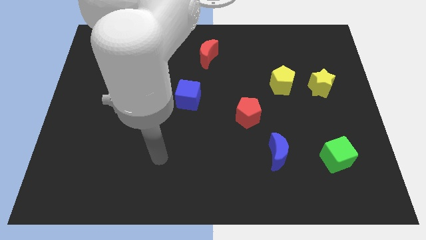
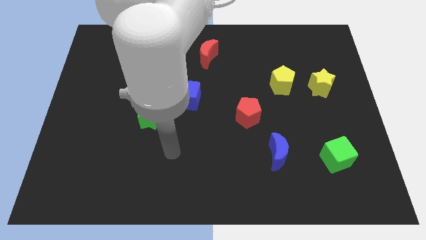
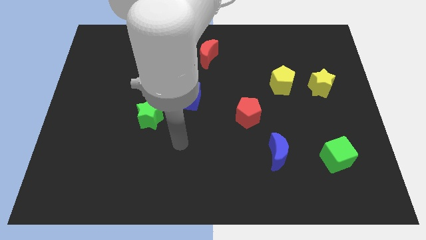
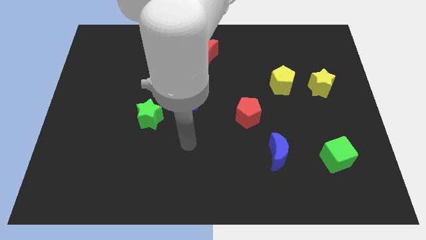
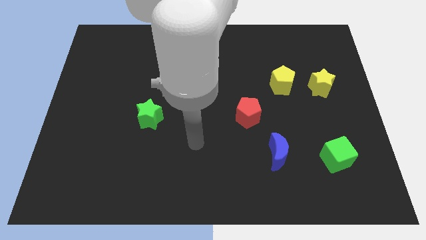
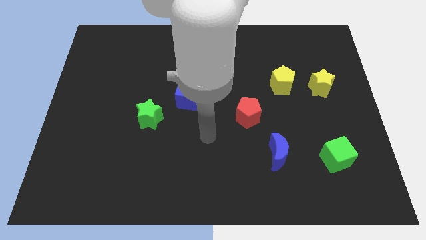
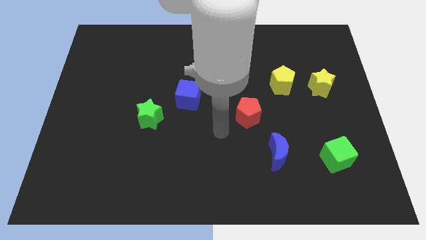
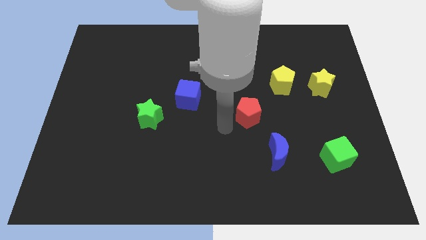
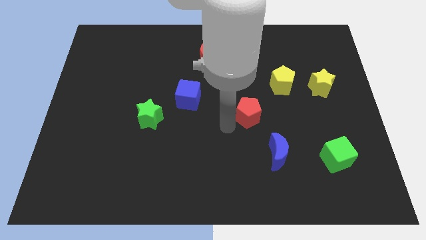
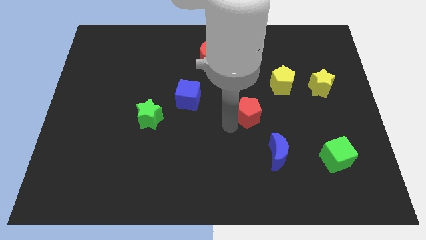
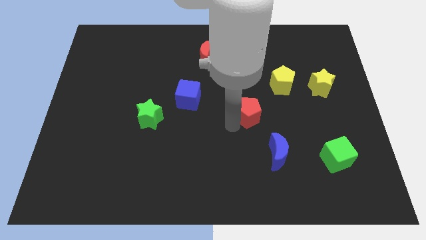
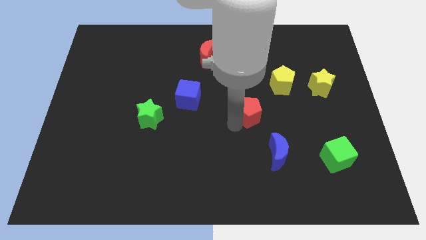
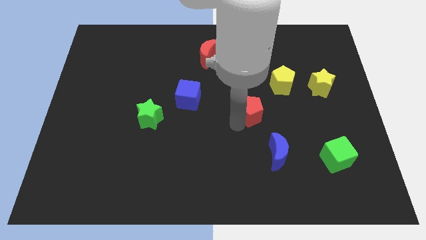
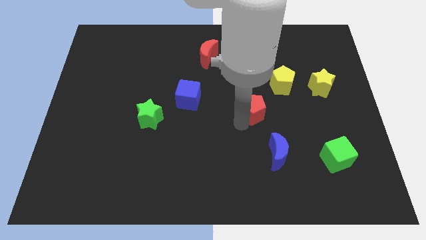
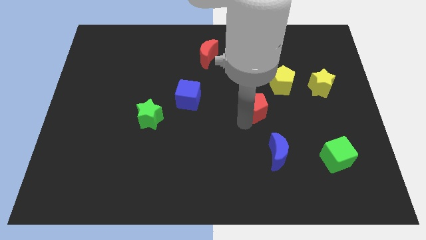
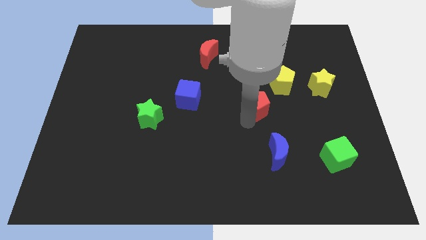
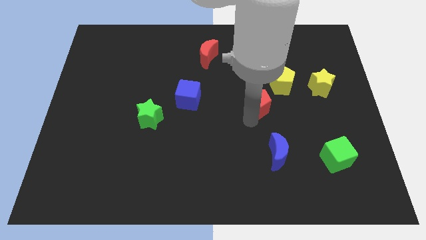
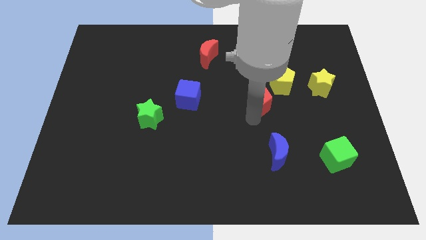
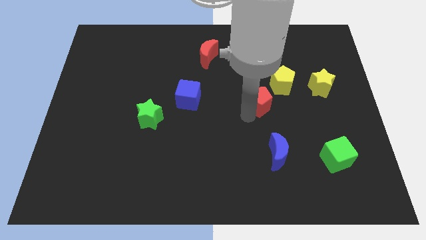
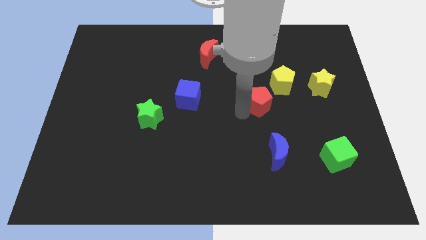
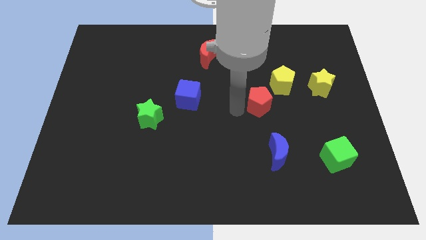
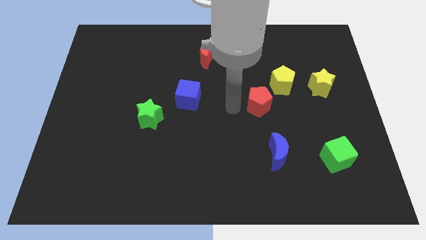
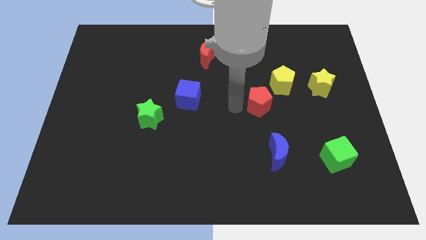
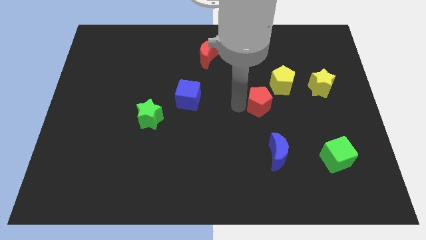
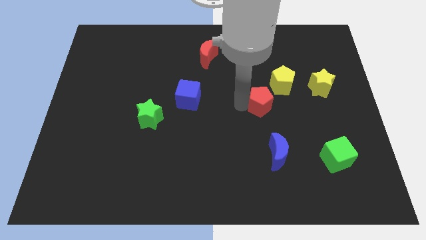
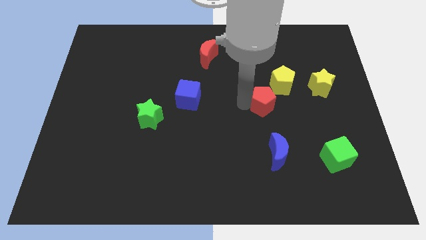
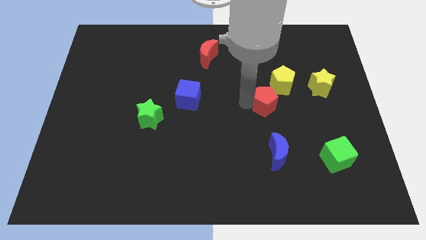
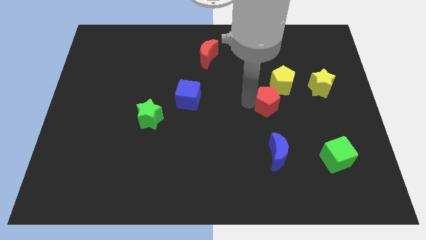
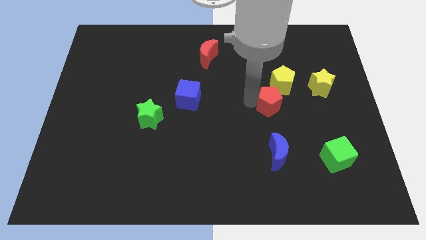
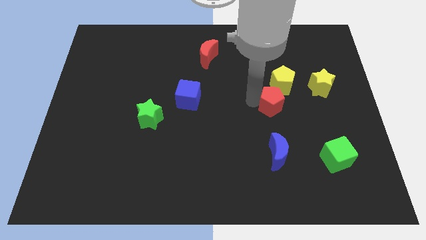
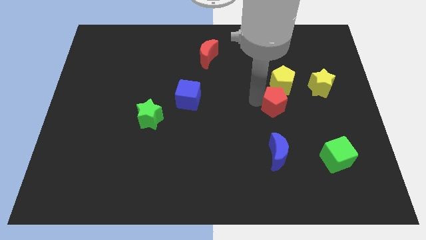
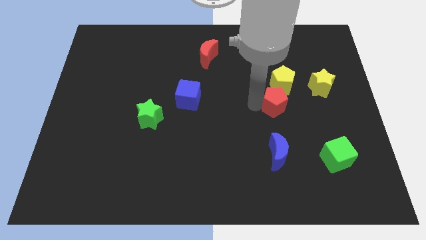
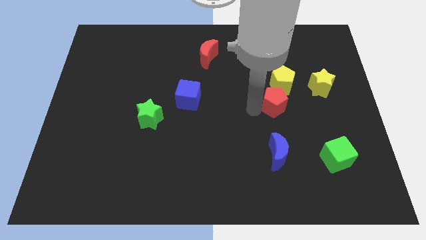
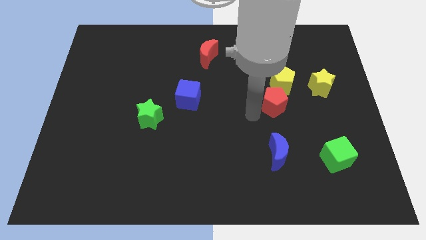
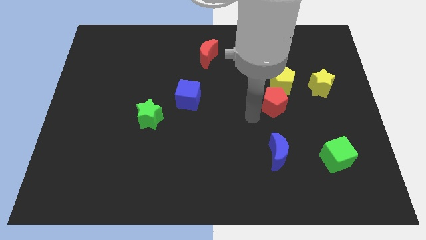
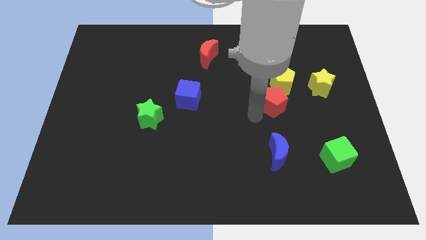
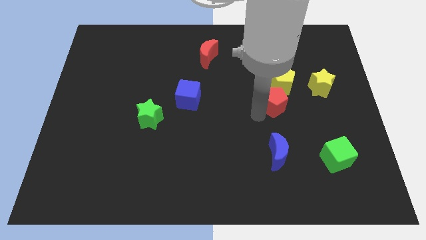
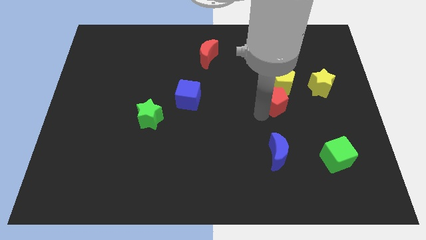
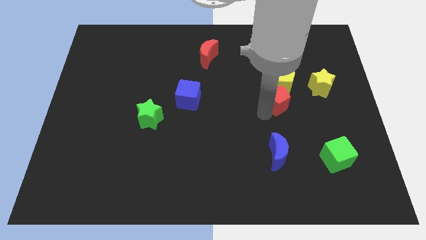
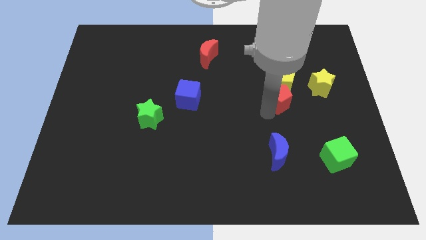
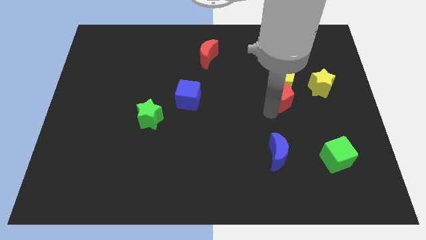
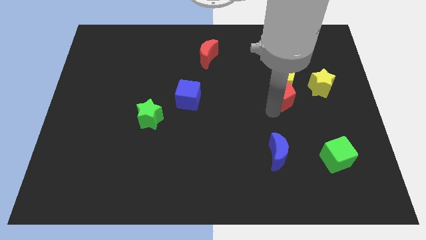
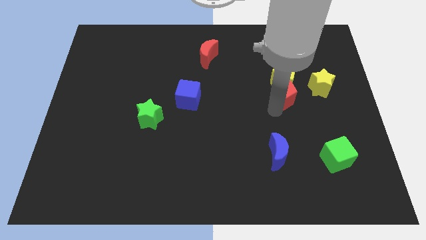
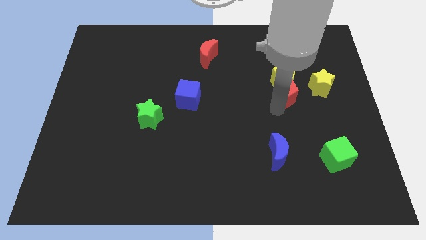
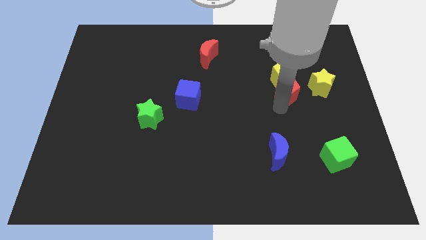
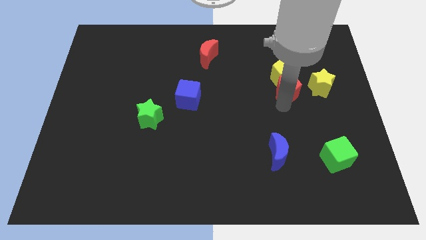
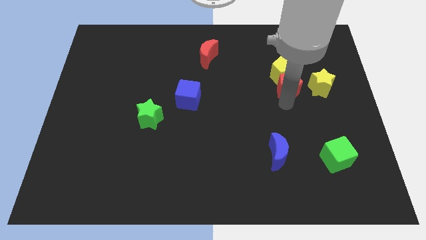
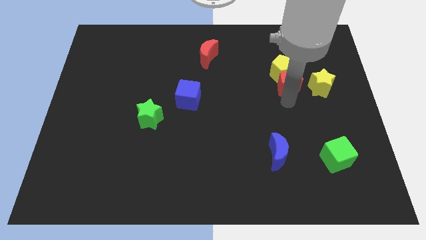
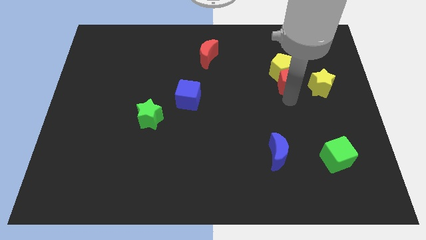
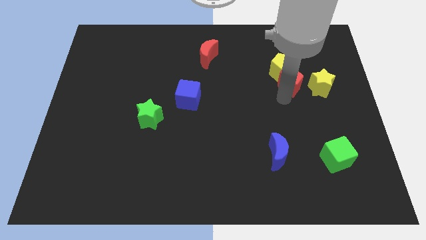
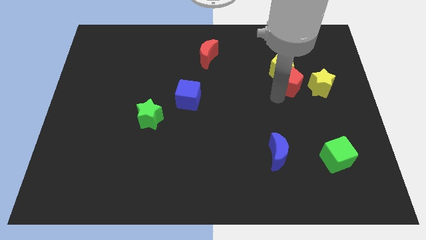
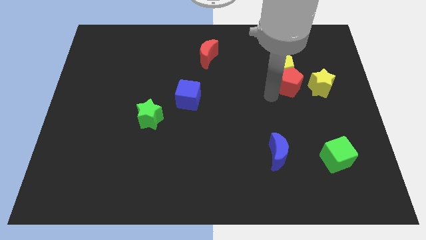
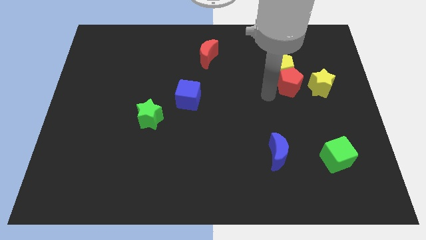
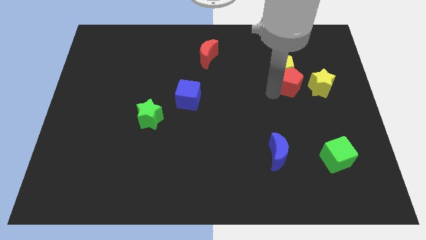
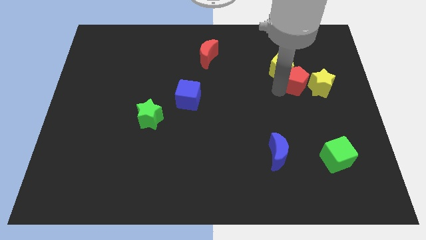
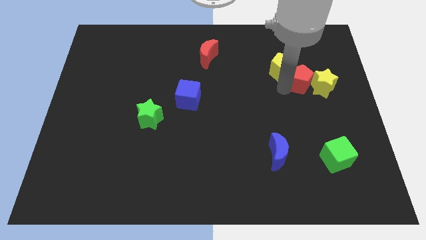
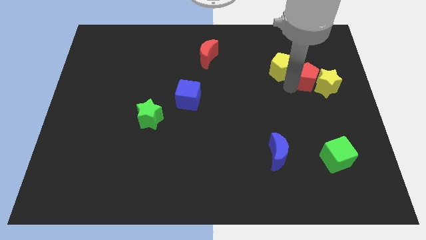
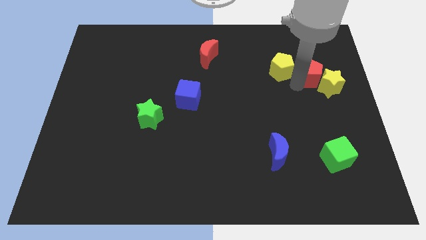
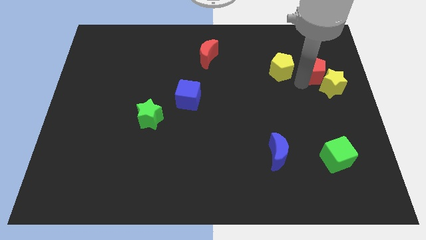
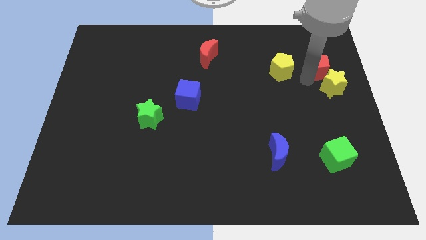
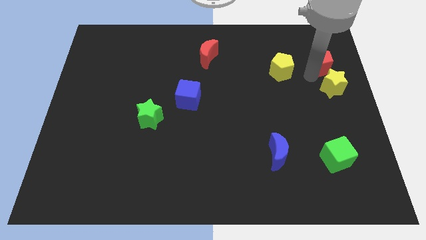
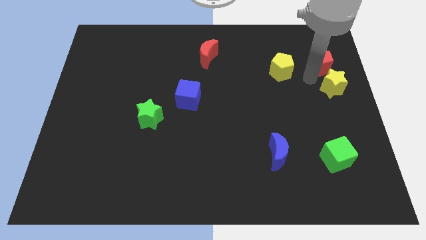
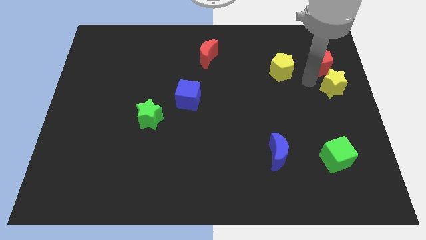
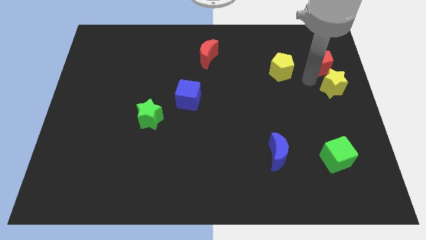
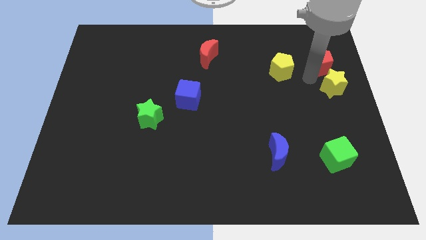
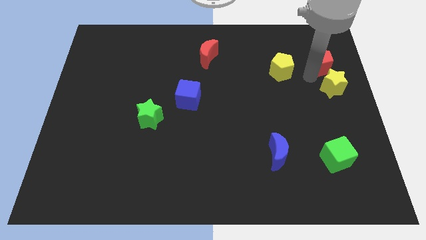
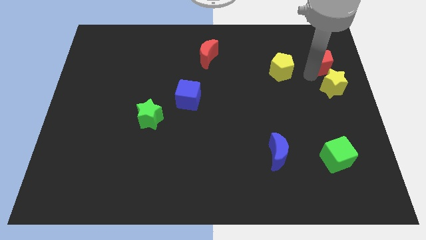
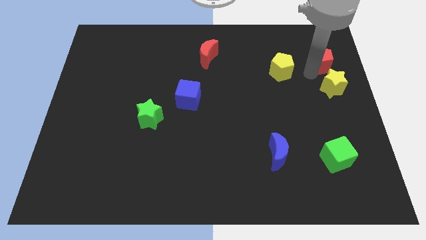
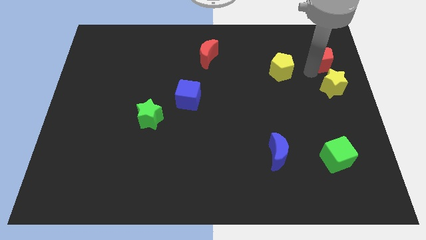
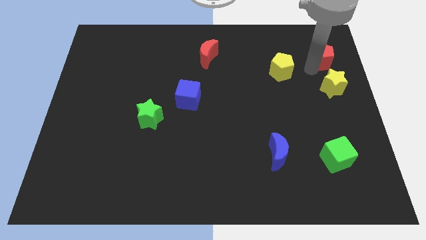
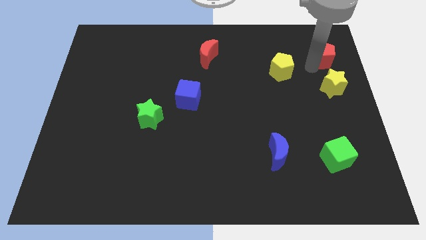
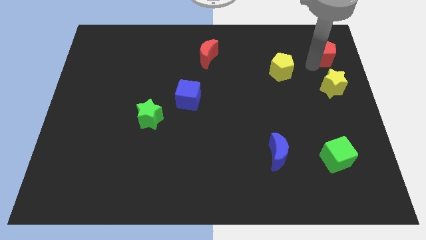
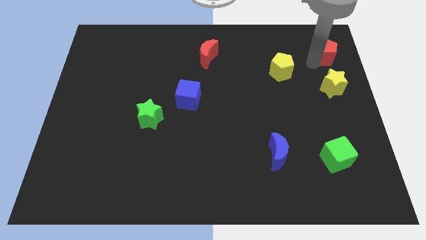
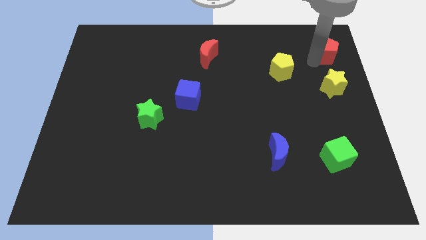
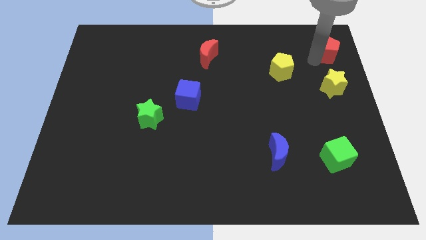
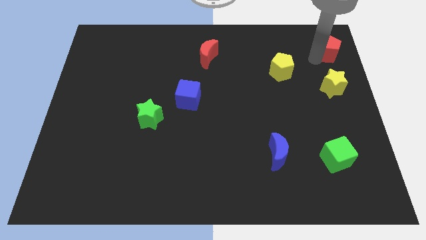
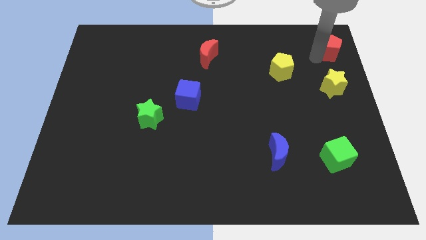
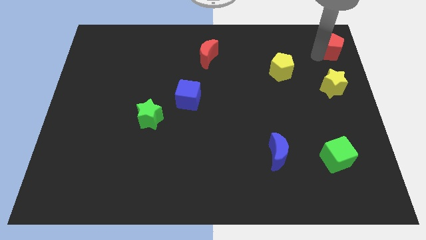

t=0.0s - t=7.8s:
move the red pentagon to the top right of the board
